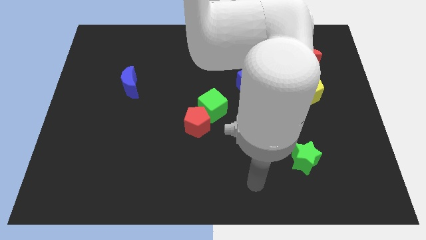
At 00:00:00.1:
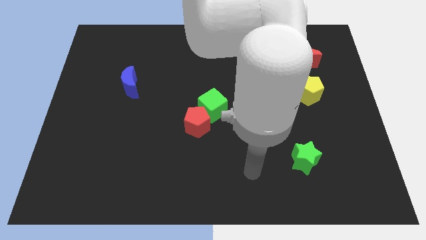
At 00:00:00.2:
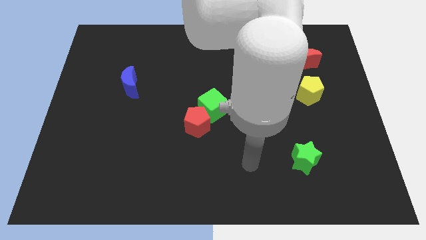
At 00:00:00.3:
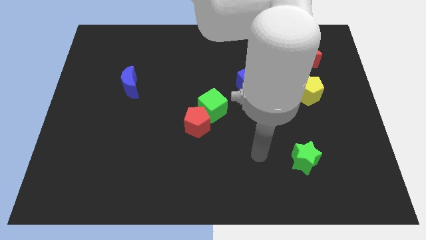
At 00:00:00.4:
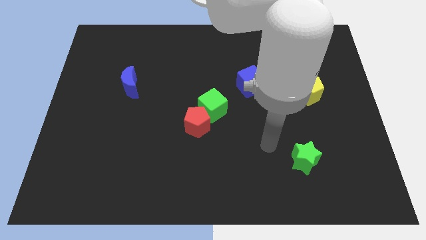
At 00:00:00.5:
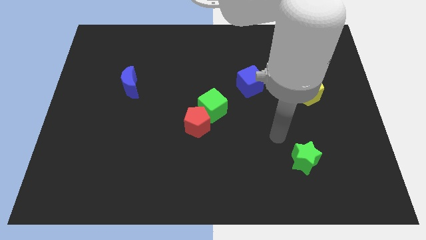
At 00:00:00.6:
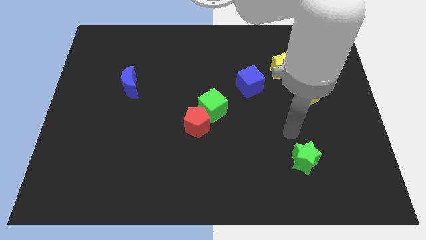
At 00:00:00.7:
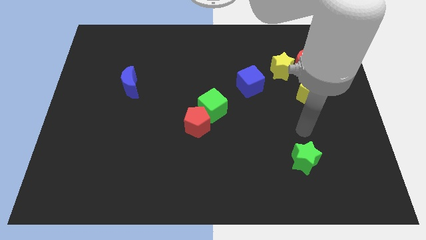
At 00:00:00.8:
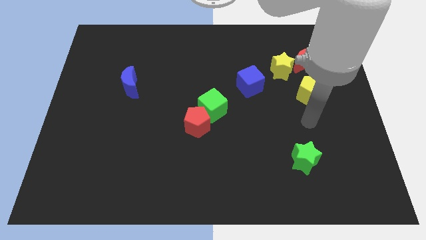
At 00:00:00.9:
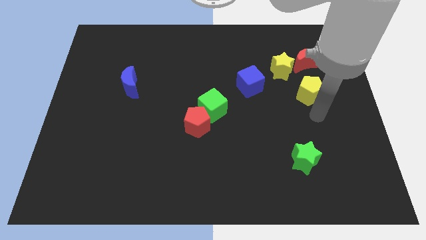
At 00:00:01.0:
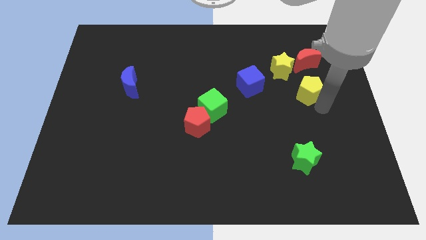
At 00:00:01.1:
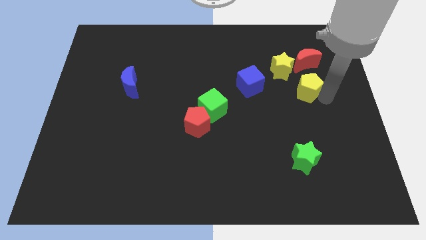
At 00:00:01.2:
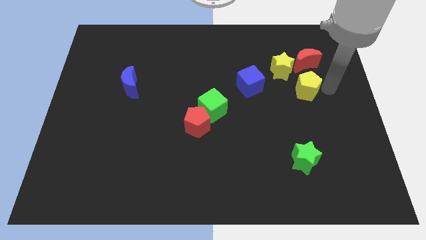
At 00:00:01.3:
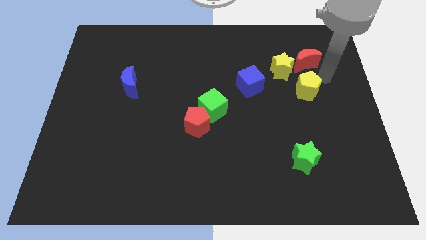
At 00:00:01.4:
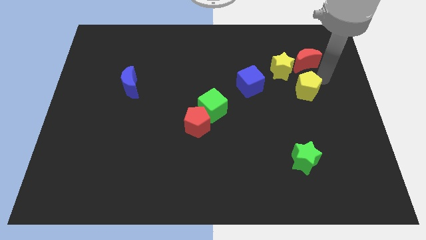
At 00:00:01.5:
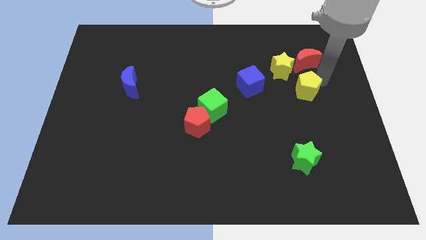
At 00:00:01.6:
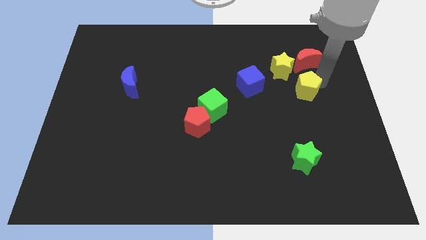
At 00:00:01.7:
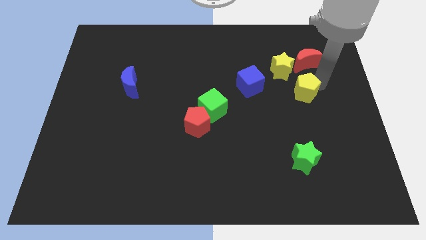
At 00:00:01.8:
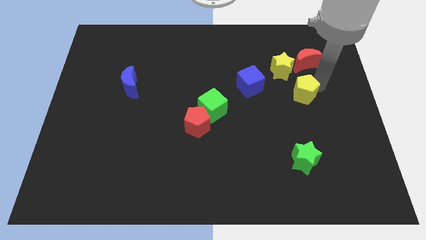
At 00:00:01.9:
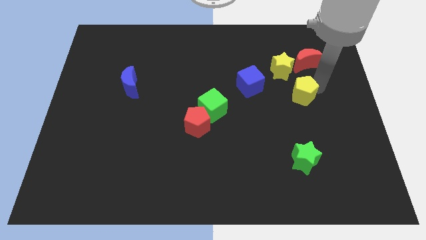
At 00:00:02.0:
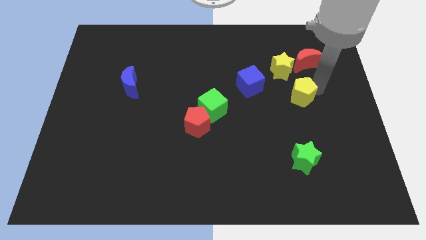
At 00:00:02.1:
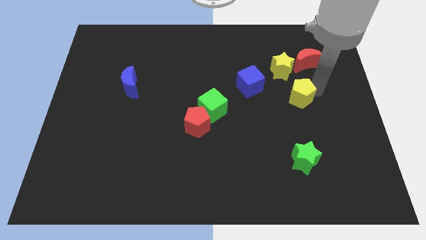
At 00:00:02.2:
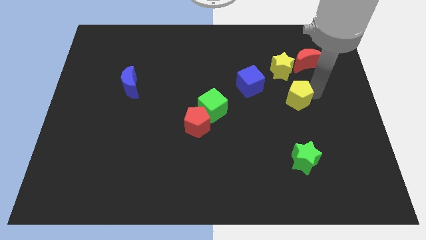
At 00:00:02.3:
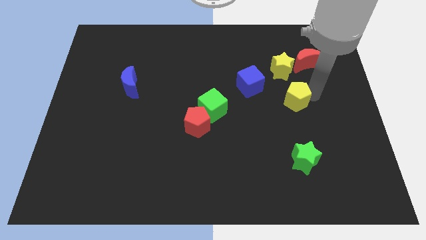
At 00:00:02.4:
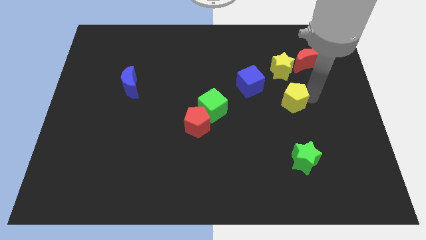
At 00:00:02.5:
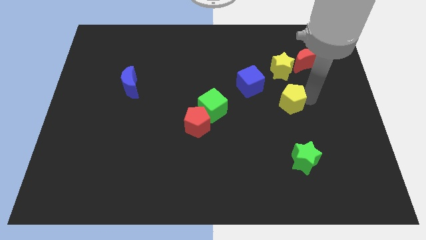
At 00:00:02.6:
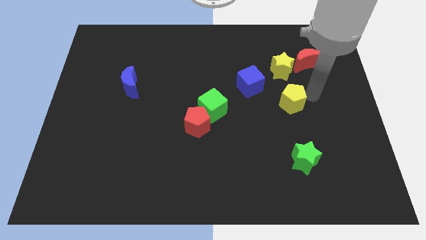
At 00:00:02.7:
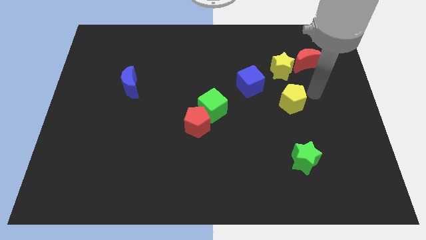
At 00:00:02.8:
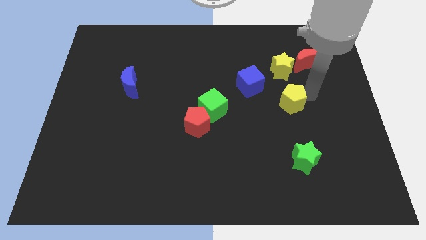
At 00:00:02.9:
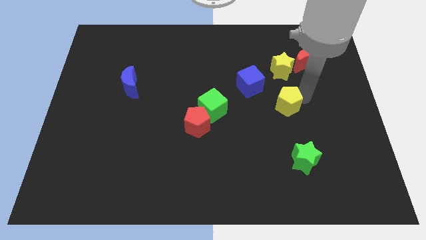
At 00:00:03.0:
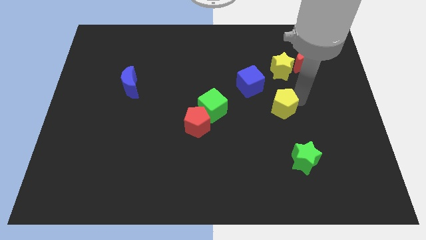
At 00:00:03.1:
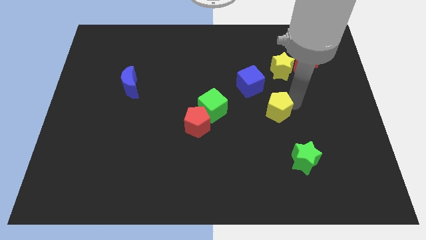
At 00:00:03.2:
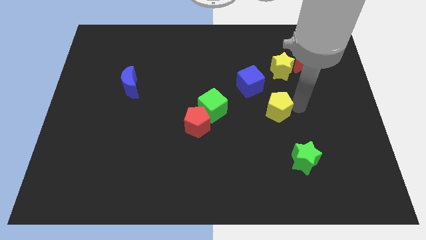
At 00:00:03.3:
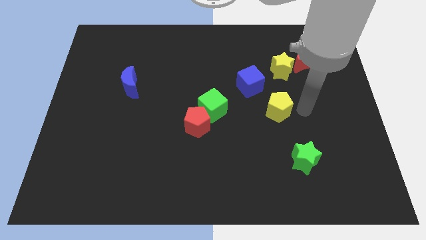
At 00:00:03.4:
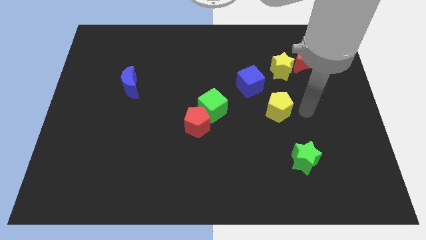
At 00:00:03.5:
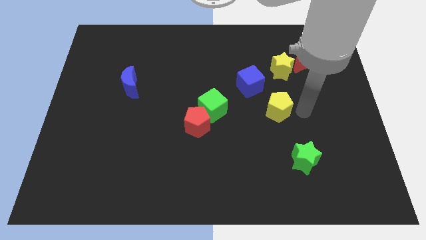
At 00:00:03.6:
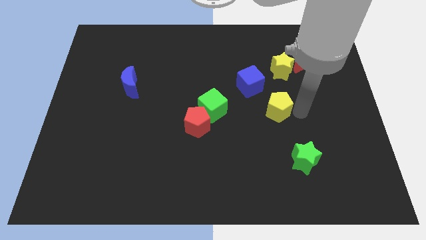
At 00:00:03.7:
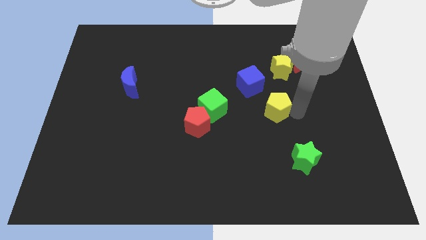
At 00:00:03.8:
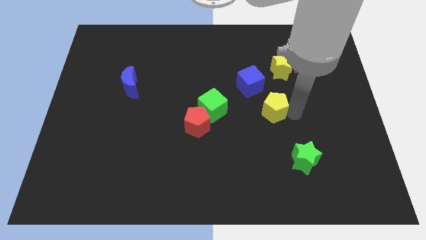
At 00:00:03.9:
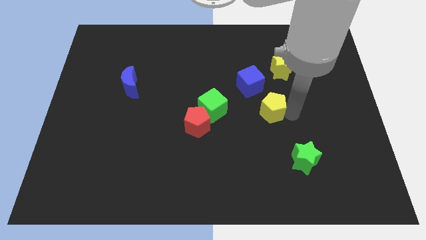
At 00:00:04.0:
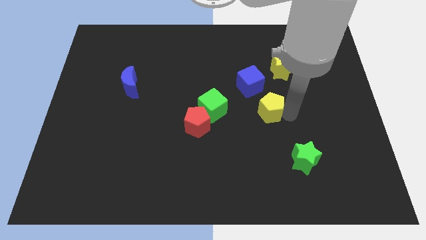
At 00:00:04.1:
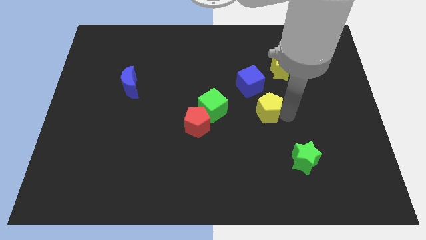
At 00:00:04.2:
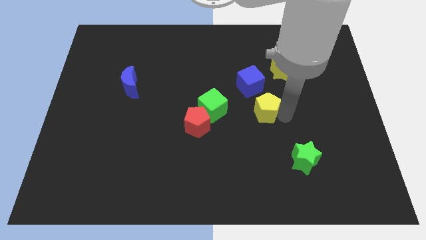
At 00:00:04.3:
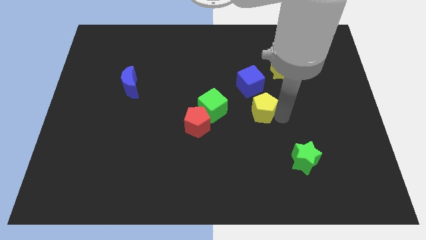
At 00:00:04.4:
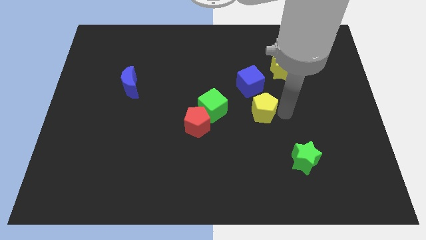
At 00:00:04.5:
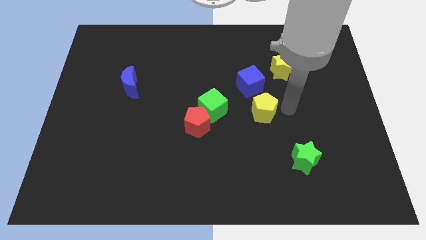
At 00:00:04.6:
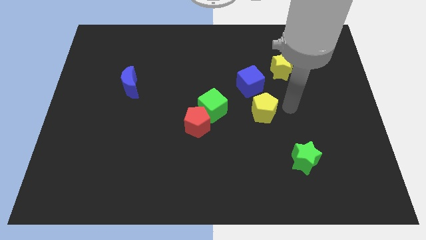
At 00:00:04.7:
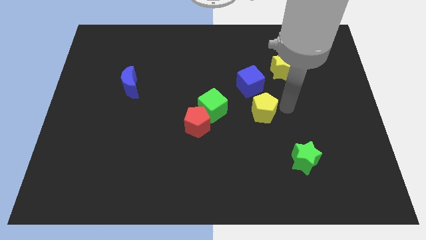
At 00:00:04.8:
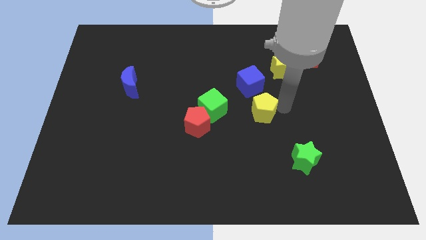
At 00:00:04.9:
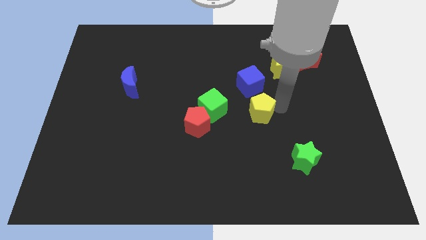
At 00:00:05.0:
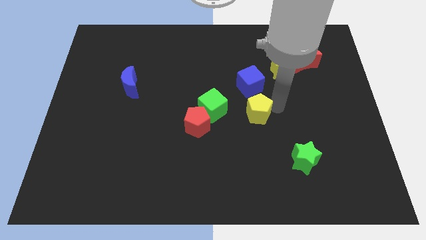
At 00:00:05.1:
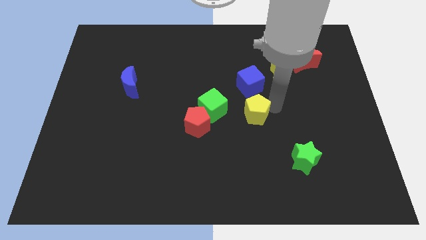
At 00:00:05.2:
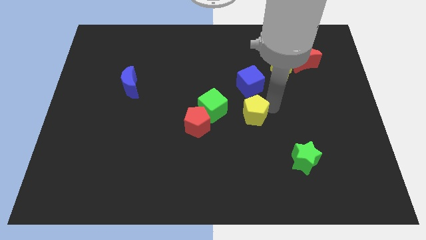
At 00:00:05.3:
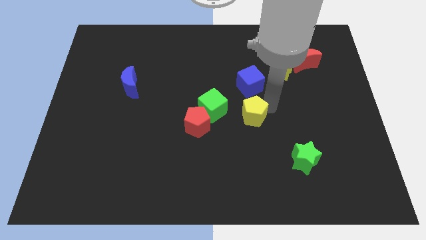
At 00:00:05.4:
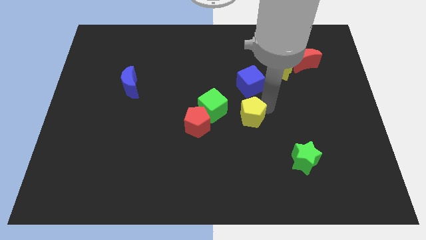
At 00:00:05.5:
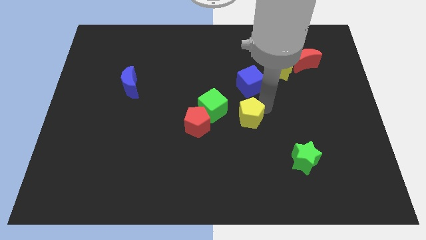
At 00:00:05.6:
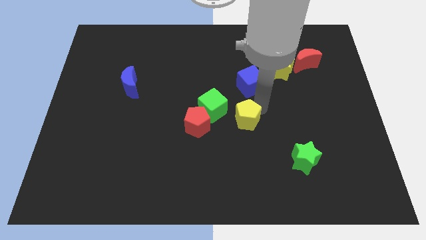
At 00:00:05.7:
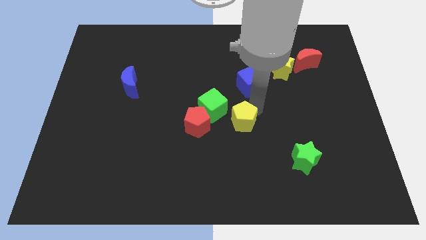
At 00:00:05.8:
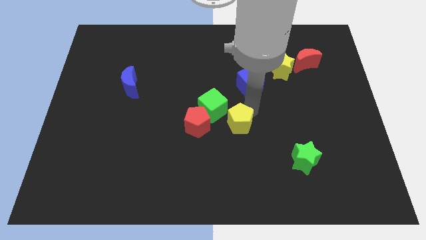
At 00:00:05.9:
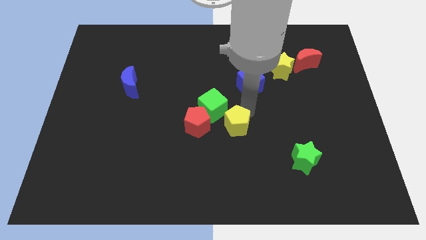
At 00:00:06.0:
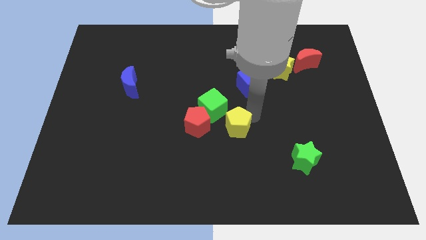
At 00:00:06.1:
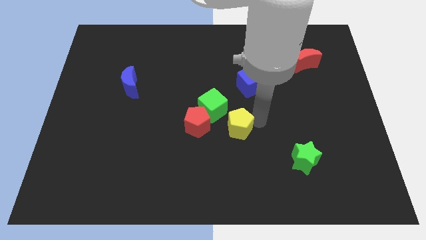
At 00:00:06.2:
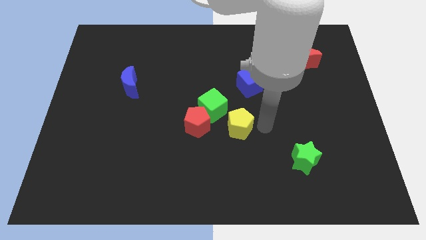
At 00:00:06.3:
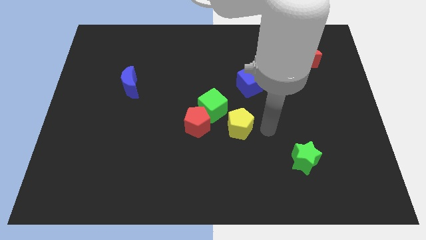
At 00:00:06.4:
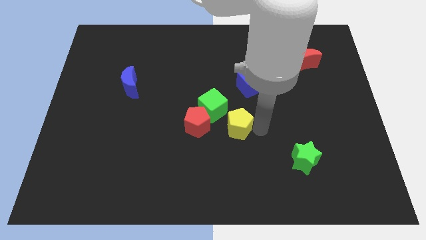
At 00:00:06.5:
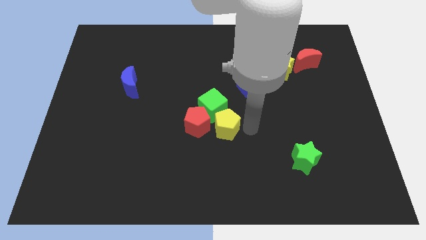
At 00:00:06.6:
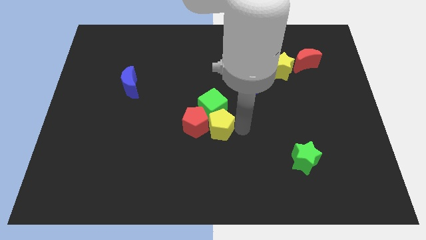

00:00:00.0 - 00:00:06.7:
put the yellow pentagon towards the red pentagon

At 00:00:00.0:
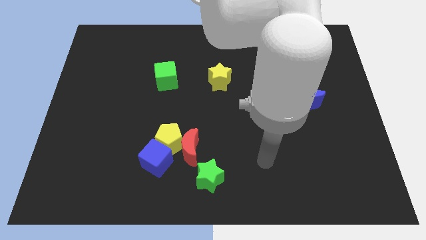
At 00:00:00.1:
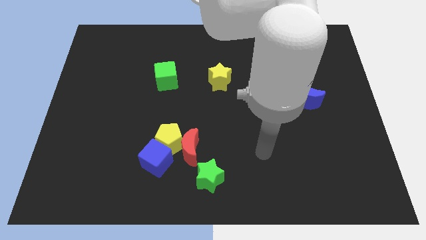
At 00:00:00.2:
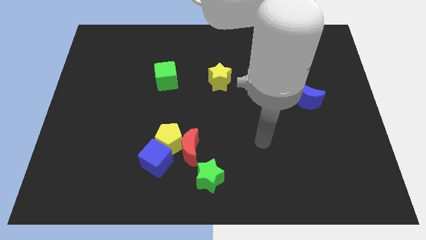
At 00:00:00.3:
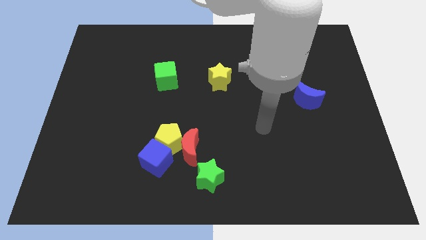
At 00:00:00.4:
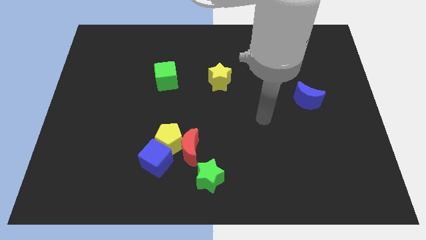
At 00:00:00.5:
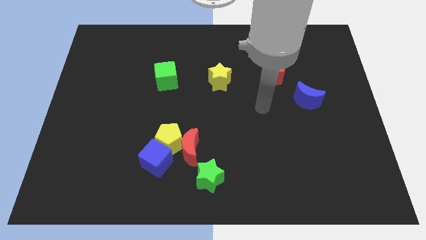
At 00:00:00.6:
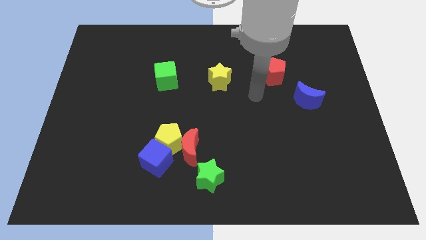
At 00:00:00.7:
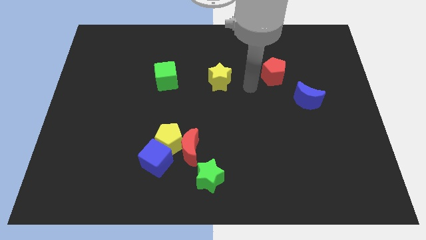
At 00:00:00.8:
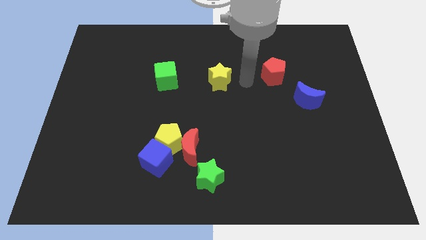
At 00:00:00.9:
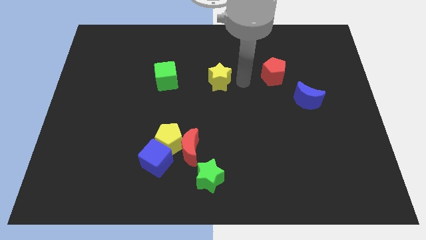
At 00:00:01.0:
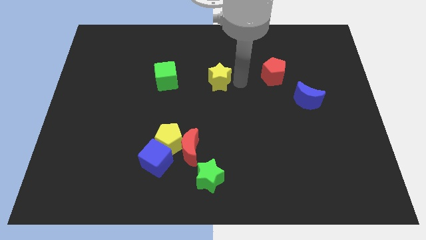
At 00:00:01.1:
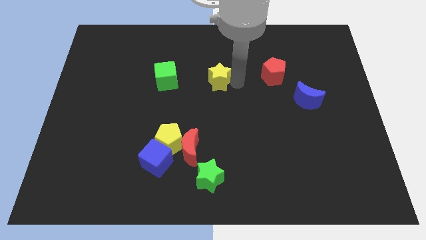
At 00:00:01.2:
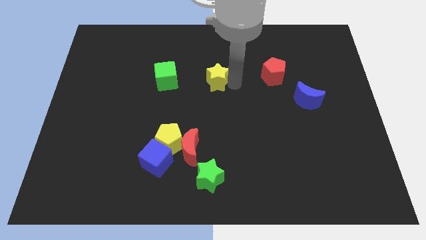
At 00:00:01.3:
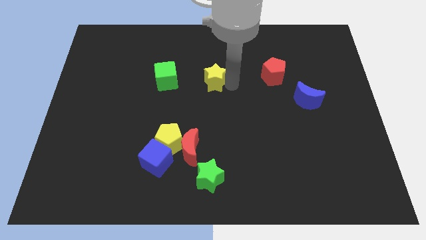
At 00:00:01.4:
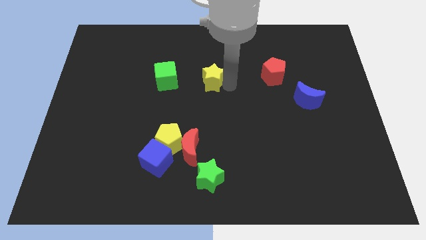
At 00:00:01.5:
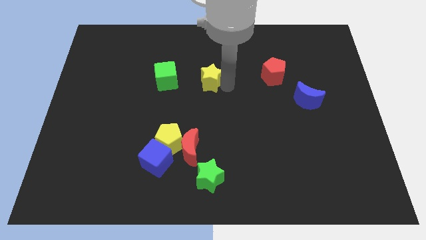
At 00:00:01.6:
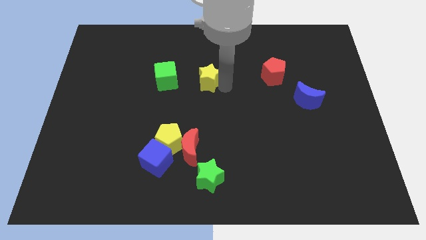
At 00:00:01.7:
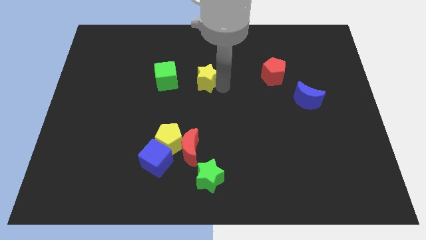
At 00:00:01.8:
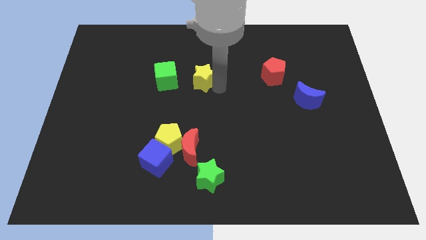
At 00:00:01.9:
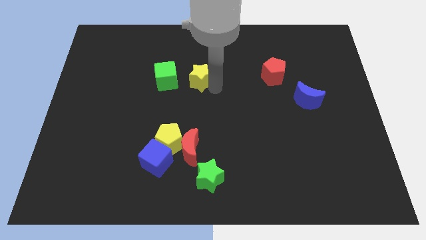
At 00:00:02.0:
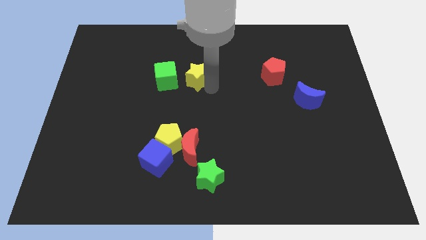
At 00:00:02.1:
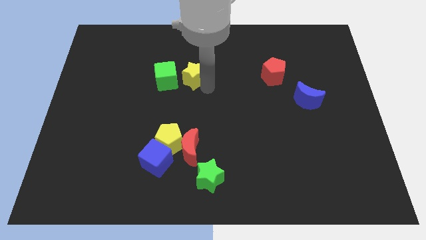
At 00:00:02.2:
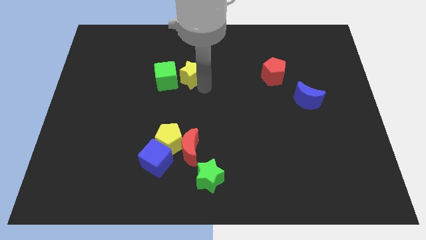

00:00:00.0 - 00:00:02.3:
push the yellow star next to the green cube
